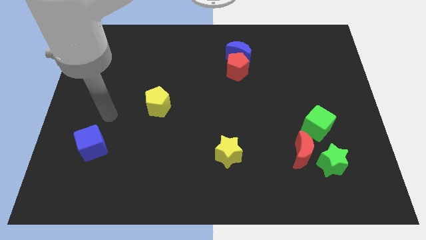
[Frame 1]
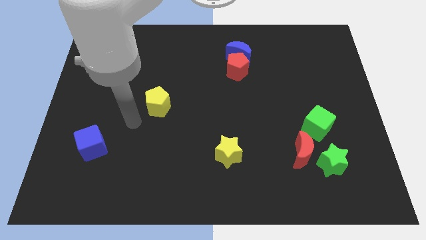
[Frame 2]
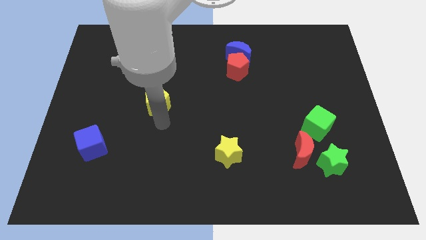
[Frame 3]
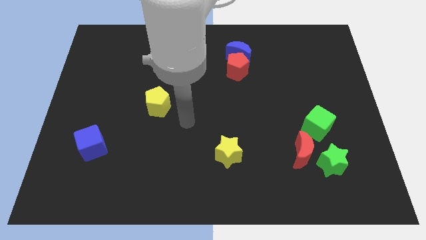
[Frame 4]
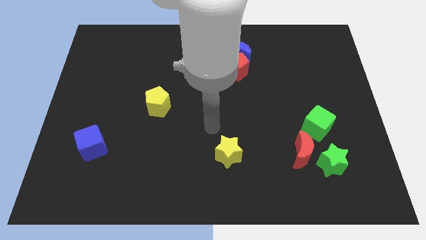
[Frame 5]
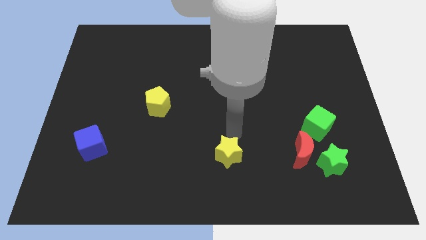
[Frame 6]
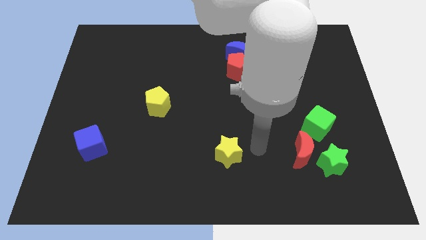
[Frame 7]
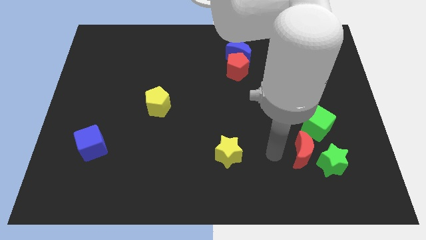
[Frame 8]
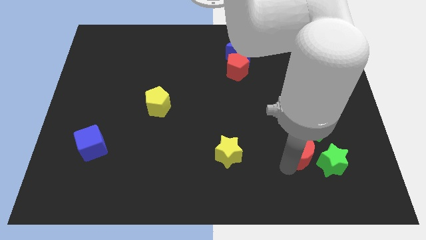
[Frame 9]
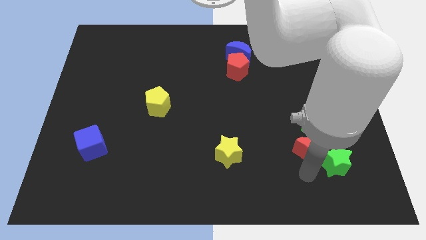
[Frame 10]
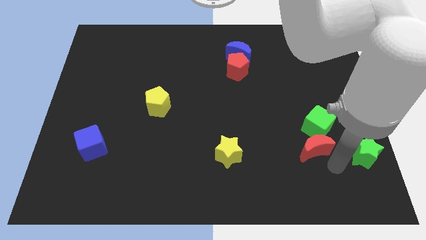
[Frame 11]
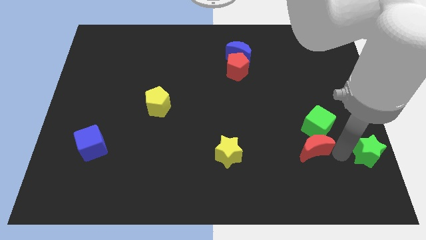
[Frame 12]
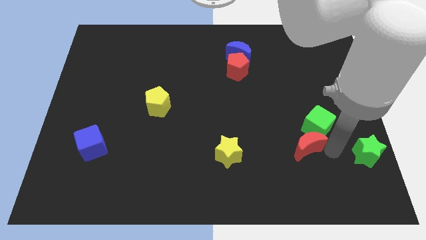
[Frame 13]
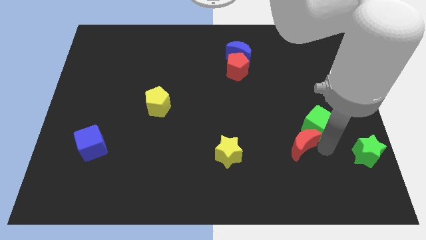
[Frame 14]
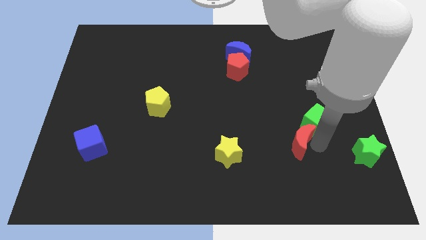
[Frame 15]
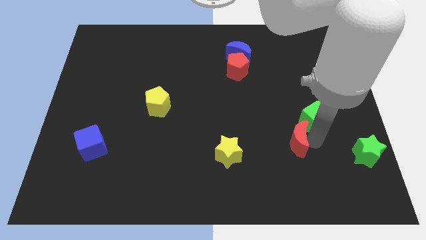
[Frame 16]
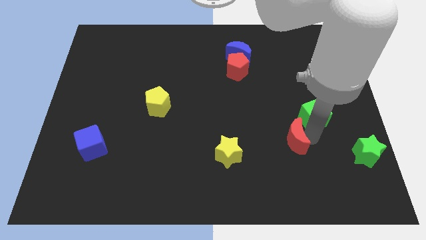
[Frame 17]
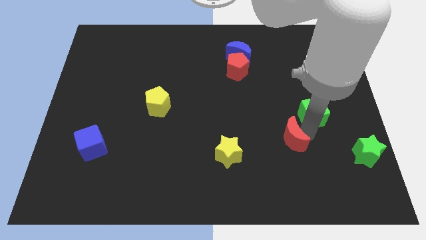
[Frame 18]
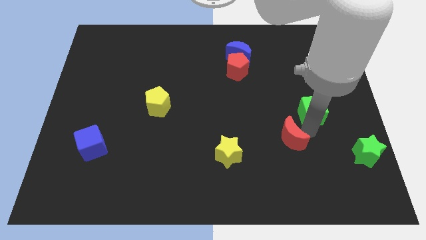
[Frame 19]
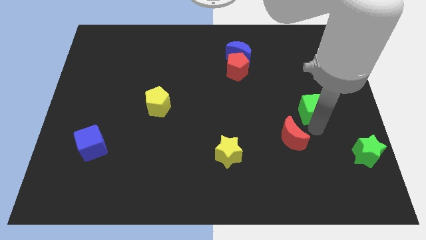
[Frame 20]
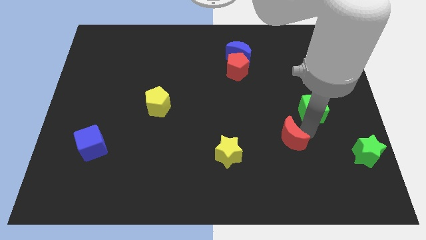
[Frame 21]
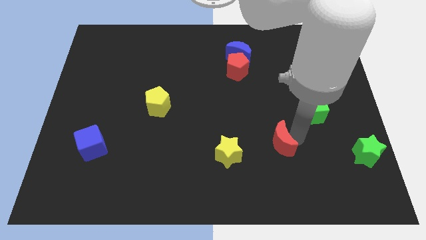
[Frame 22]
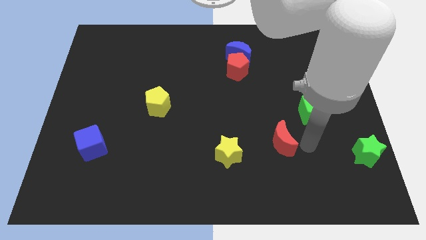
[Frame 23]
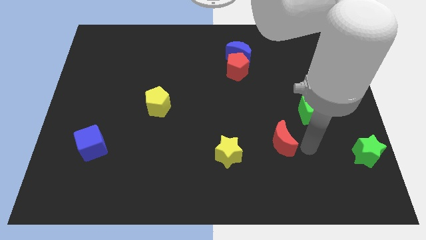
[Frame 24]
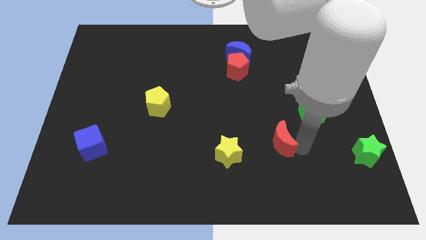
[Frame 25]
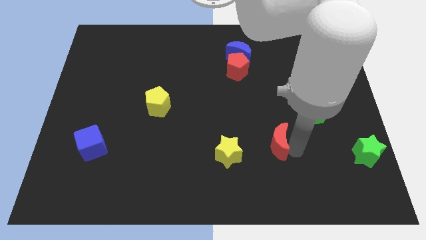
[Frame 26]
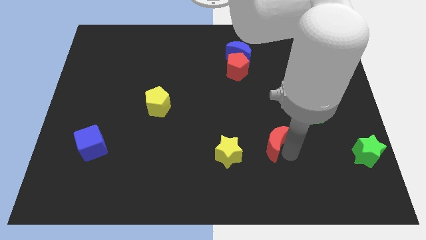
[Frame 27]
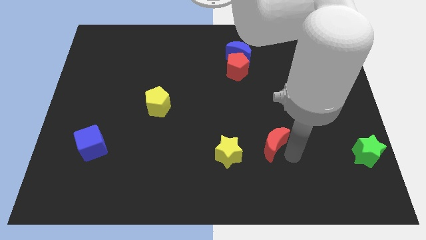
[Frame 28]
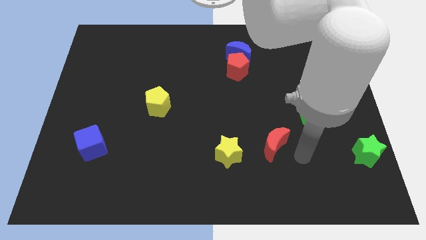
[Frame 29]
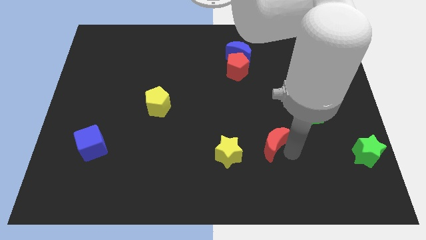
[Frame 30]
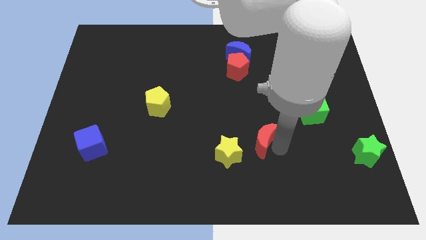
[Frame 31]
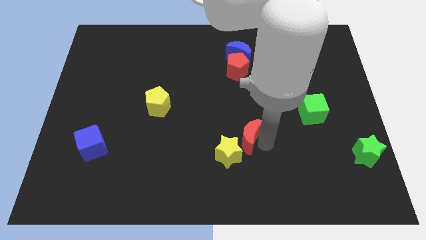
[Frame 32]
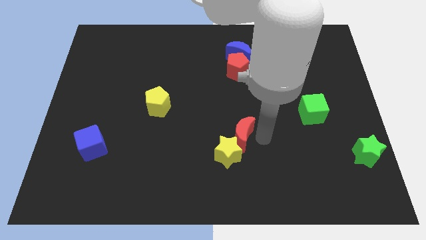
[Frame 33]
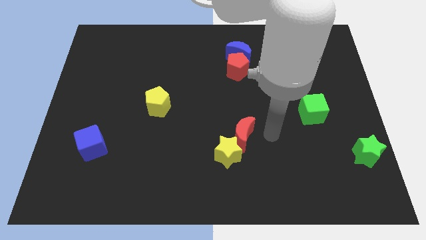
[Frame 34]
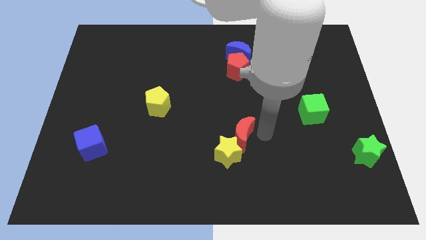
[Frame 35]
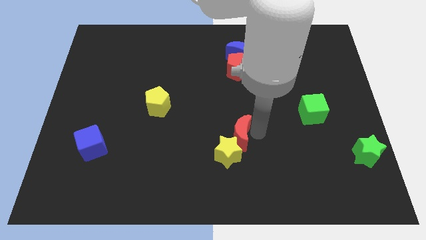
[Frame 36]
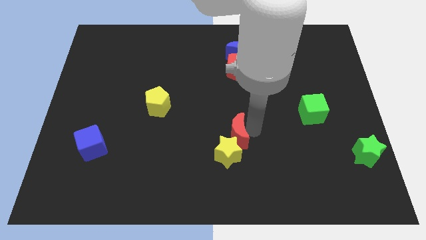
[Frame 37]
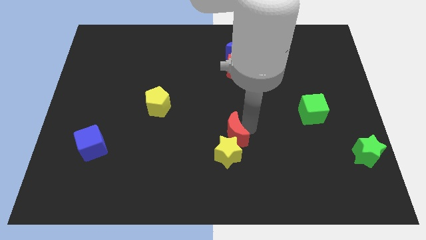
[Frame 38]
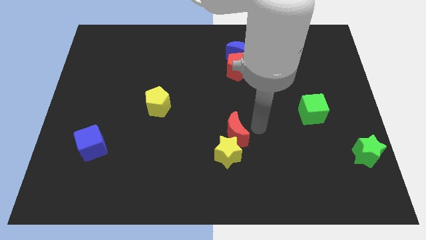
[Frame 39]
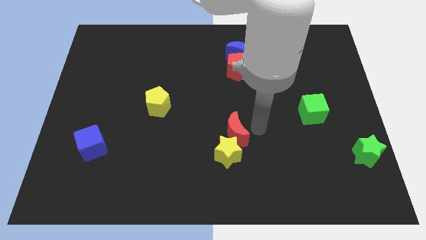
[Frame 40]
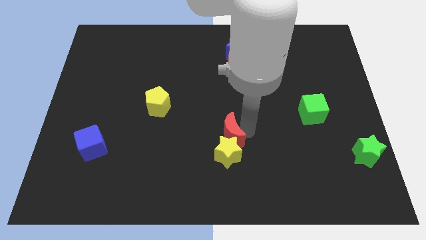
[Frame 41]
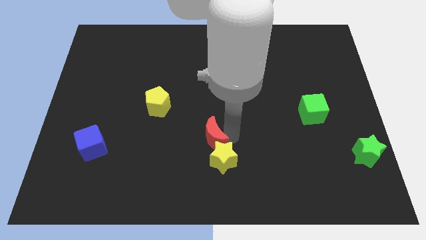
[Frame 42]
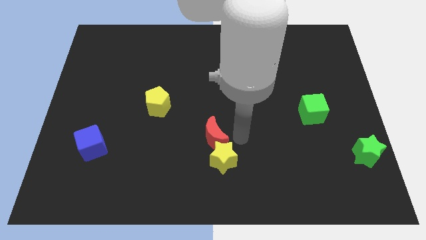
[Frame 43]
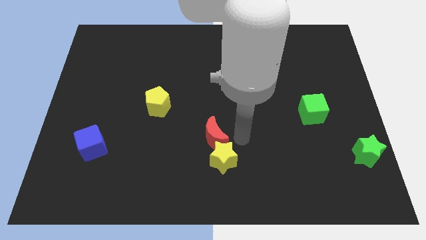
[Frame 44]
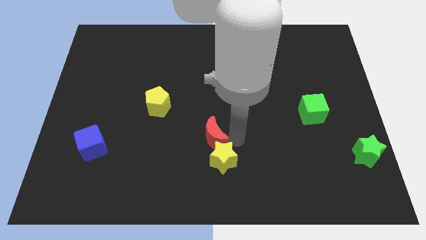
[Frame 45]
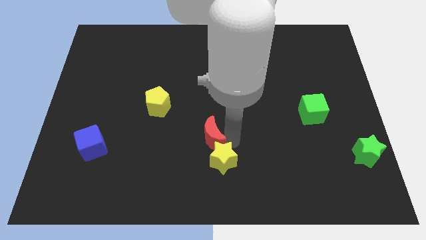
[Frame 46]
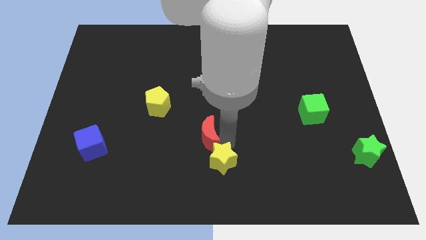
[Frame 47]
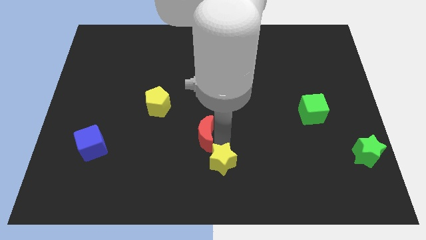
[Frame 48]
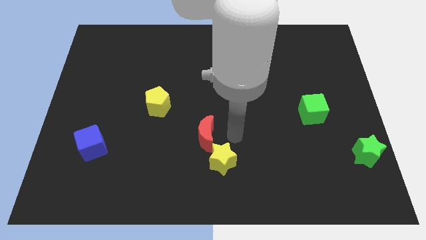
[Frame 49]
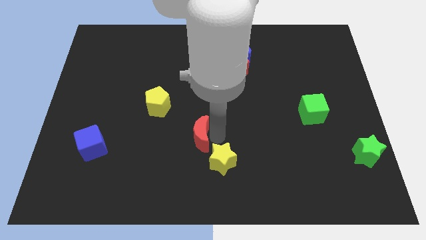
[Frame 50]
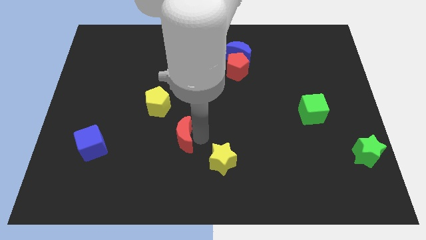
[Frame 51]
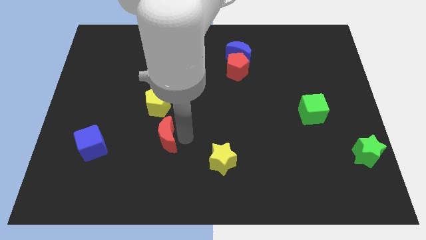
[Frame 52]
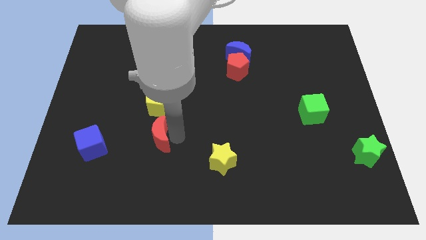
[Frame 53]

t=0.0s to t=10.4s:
slide the red moon just right of the blue cube

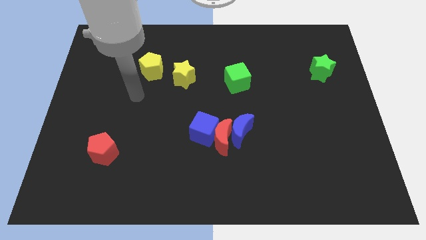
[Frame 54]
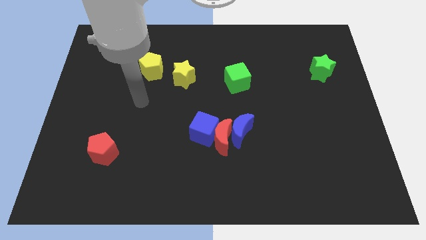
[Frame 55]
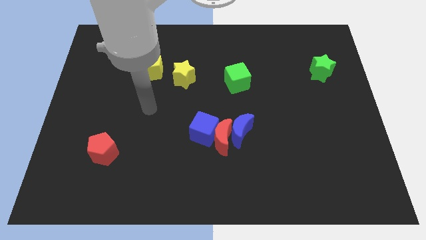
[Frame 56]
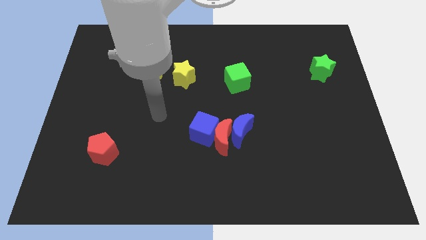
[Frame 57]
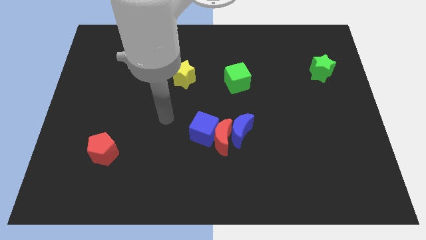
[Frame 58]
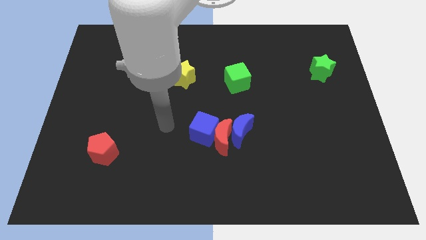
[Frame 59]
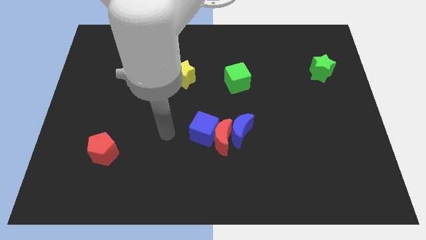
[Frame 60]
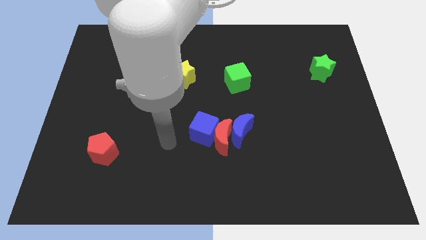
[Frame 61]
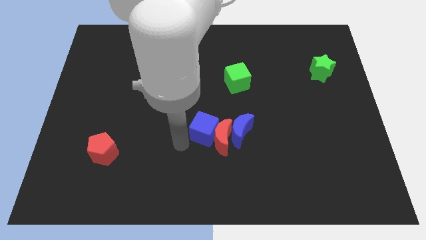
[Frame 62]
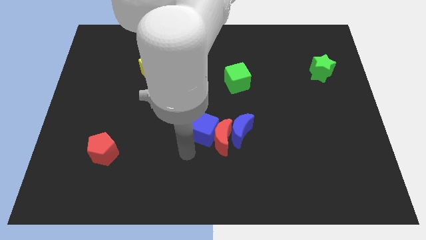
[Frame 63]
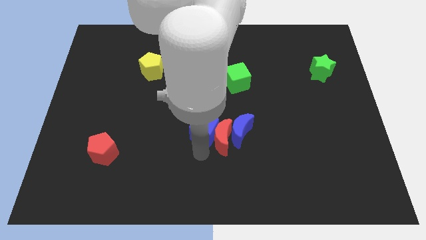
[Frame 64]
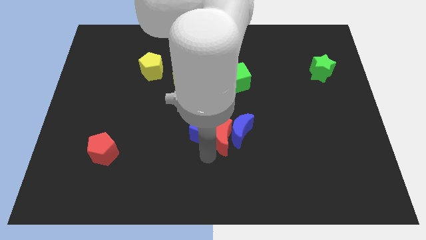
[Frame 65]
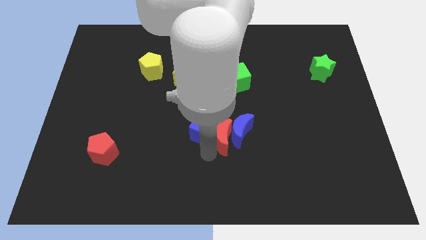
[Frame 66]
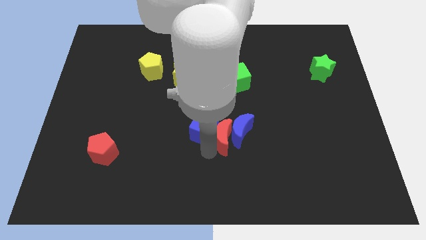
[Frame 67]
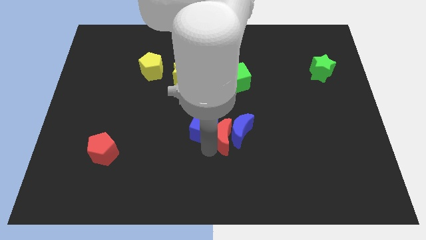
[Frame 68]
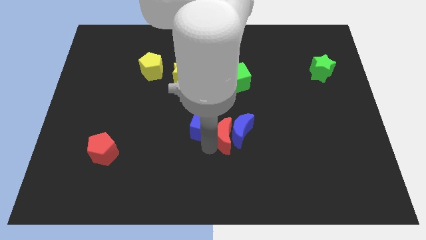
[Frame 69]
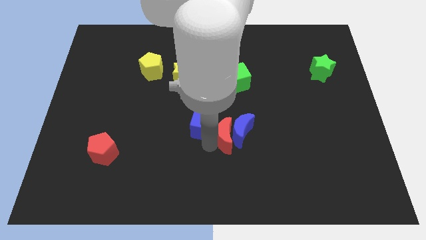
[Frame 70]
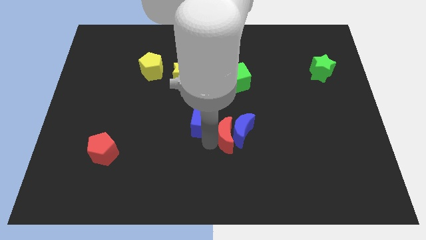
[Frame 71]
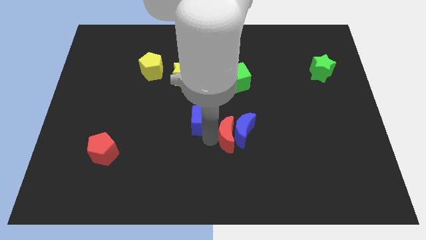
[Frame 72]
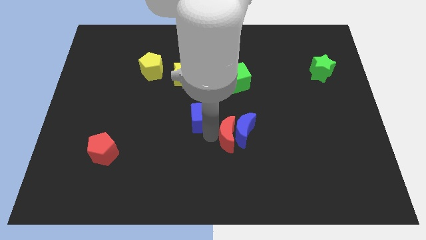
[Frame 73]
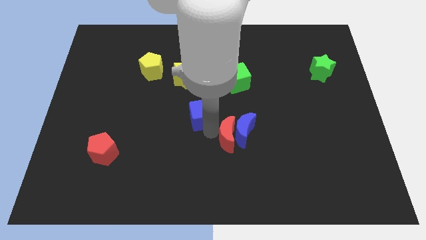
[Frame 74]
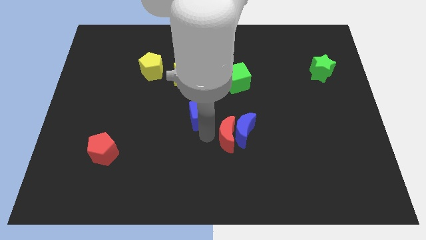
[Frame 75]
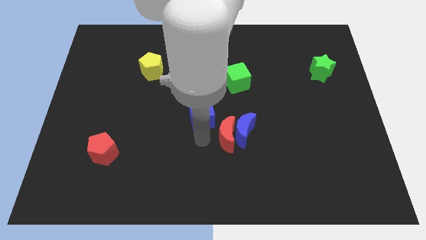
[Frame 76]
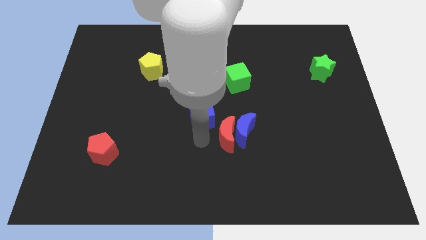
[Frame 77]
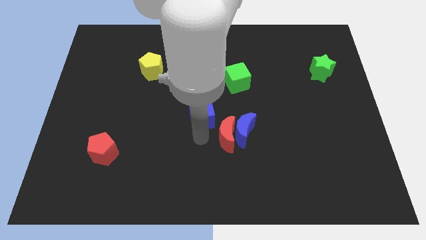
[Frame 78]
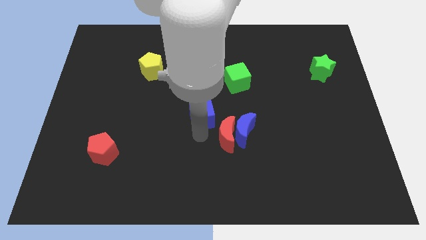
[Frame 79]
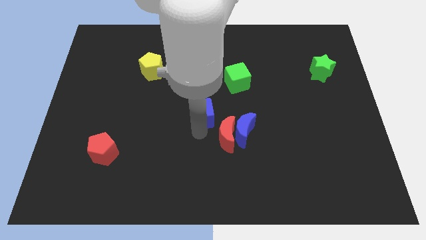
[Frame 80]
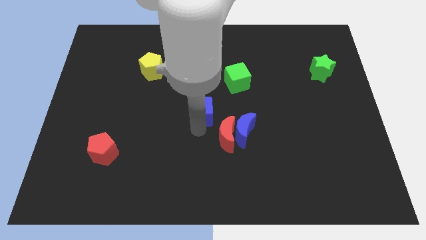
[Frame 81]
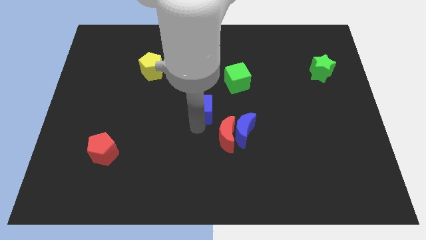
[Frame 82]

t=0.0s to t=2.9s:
push the blue cube diagonally down and to the right of the yellow star
